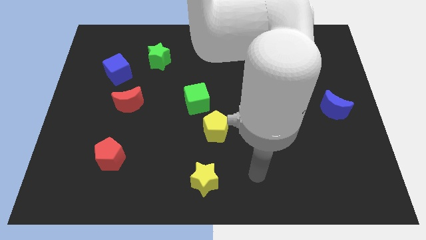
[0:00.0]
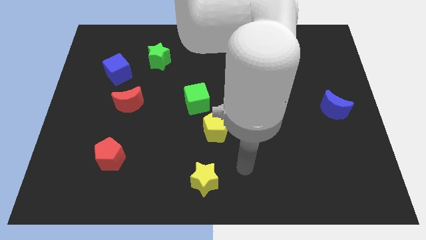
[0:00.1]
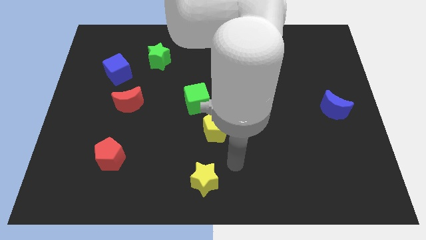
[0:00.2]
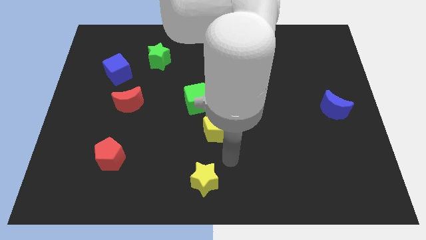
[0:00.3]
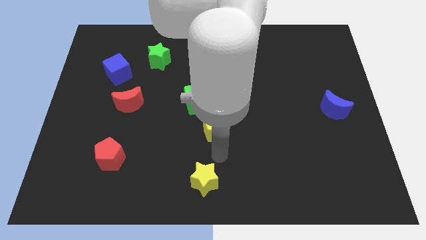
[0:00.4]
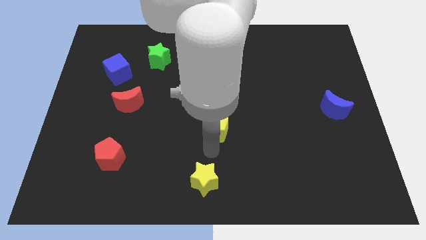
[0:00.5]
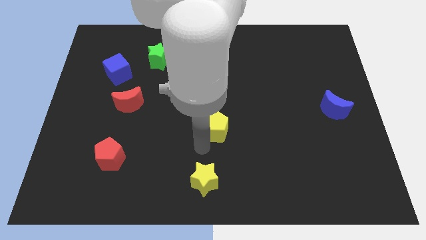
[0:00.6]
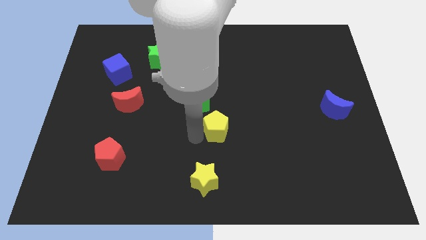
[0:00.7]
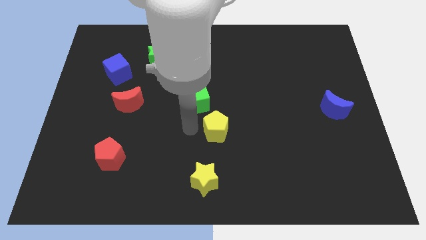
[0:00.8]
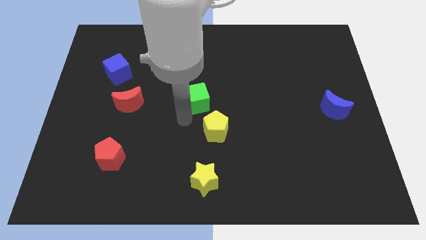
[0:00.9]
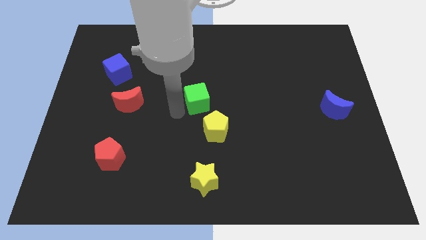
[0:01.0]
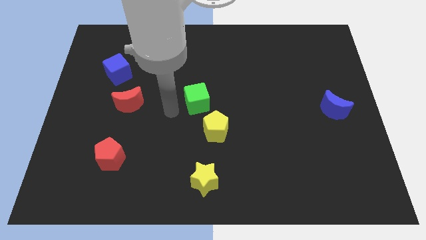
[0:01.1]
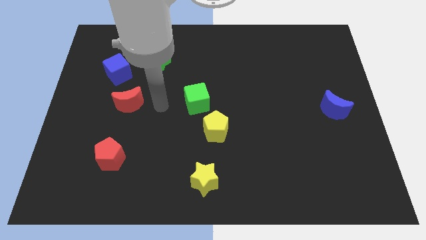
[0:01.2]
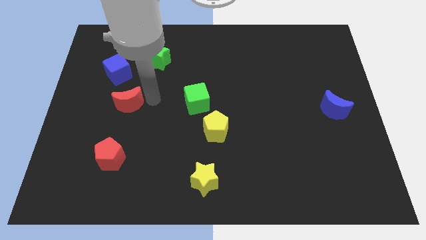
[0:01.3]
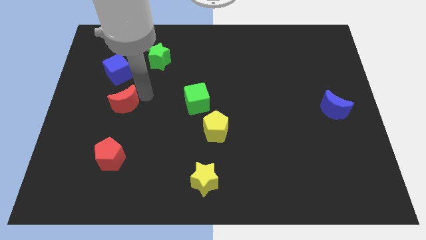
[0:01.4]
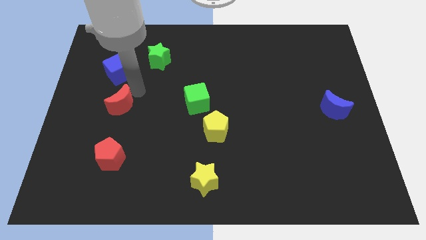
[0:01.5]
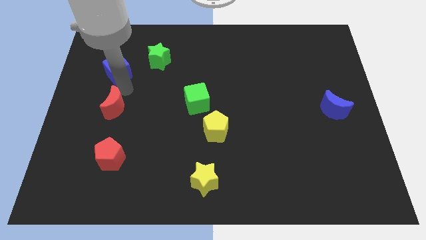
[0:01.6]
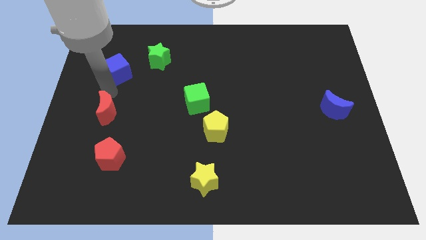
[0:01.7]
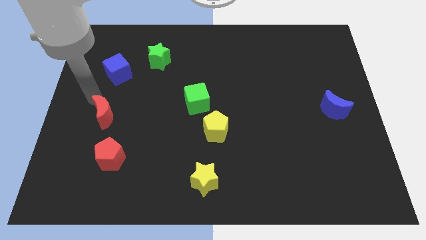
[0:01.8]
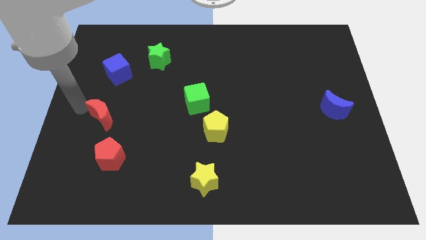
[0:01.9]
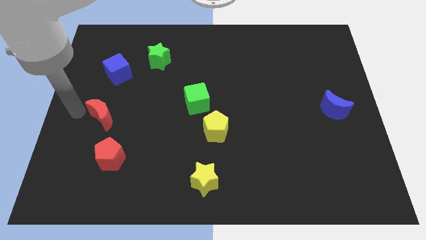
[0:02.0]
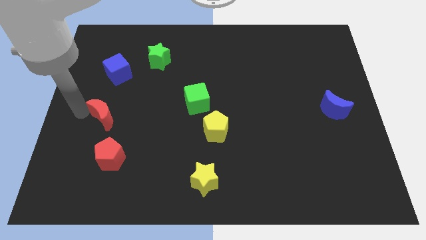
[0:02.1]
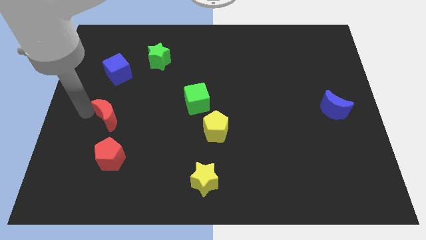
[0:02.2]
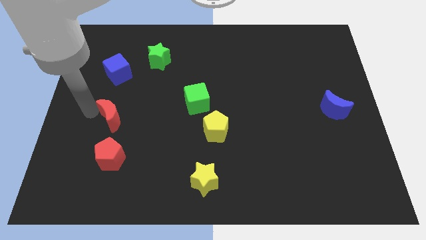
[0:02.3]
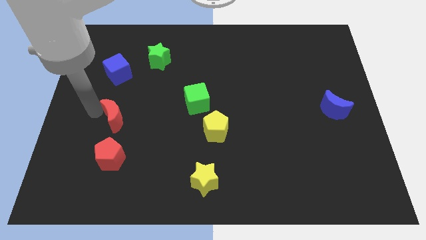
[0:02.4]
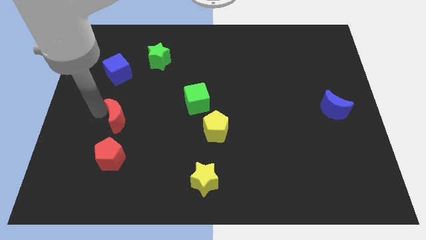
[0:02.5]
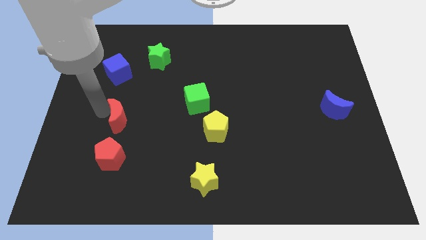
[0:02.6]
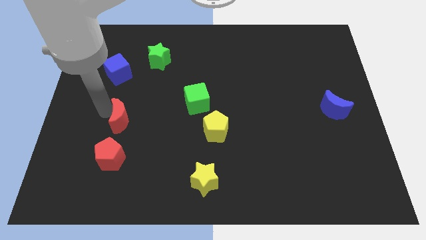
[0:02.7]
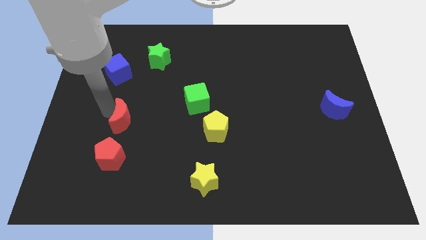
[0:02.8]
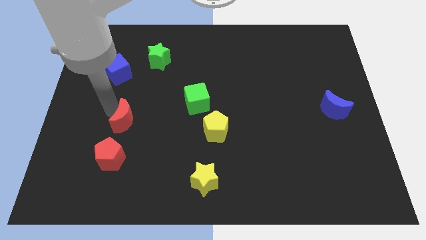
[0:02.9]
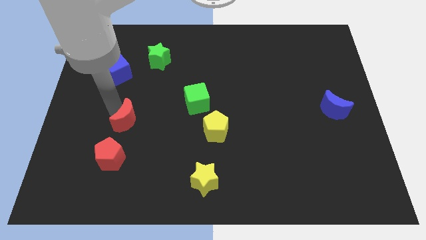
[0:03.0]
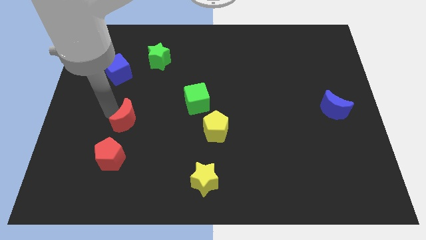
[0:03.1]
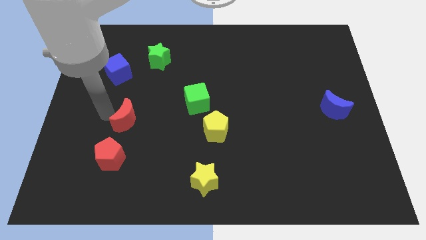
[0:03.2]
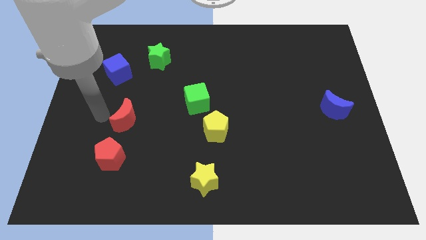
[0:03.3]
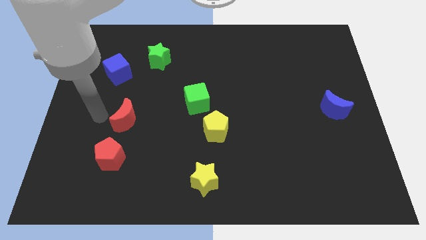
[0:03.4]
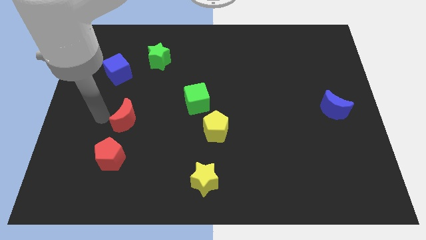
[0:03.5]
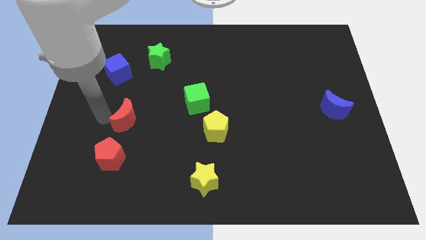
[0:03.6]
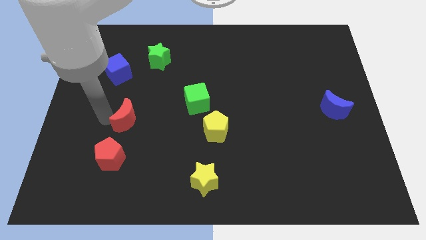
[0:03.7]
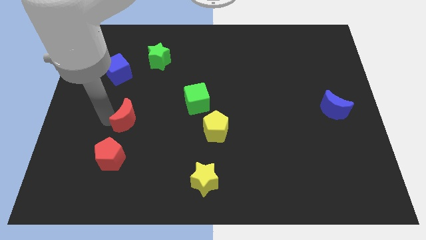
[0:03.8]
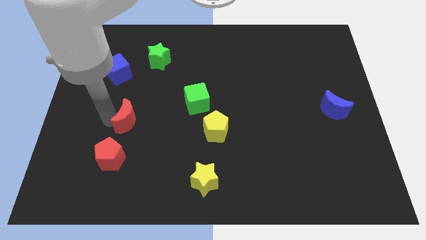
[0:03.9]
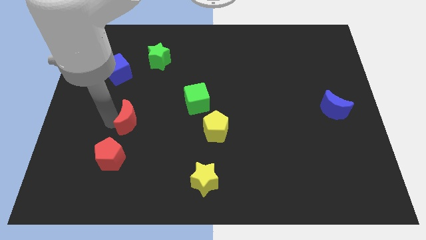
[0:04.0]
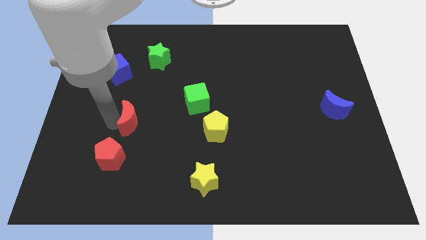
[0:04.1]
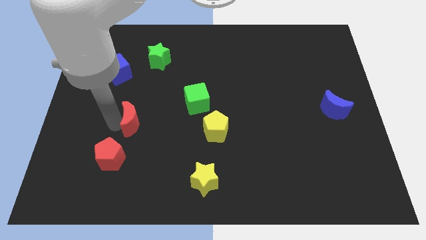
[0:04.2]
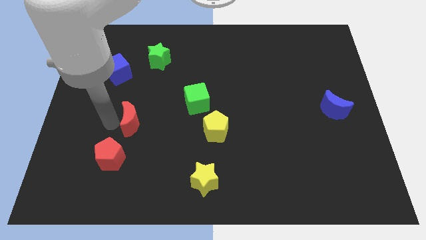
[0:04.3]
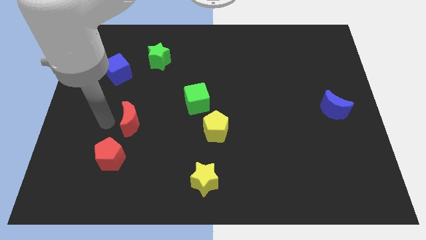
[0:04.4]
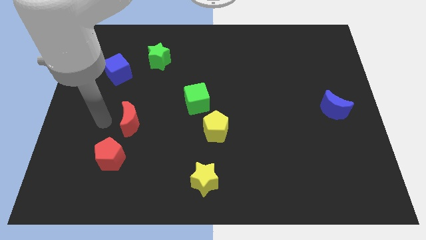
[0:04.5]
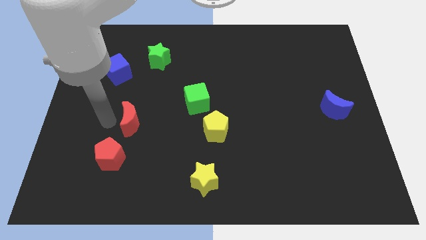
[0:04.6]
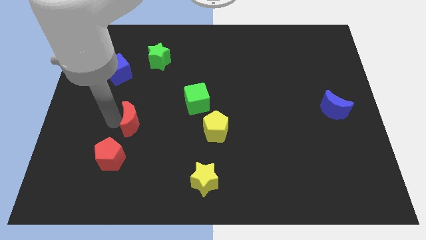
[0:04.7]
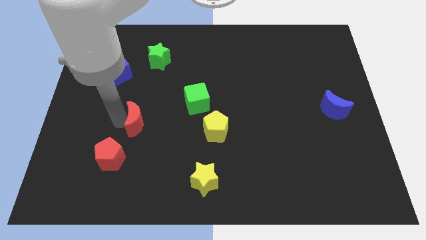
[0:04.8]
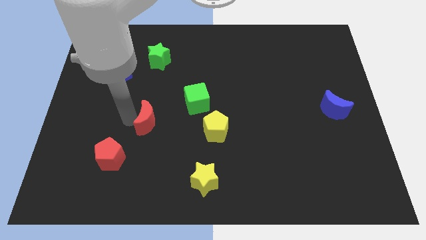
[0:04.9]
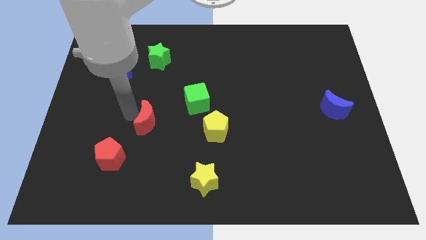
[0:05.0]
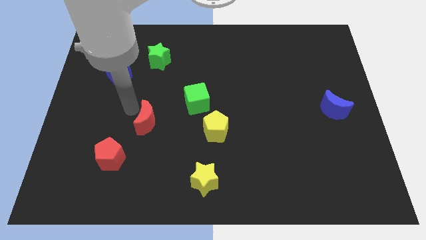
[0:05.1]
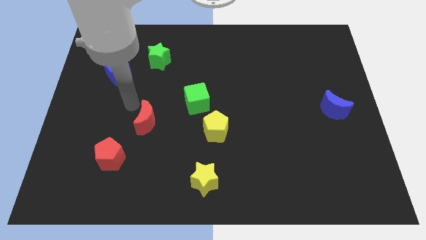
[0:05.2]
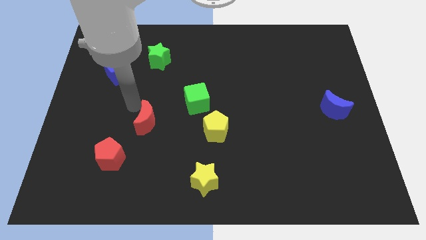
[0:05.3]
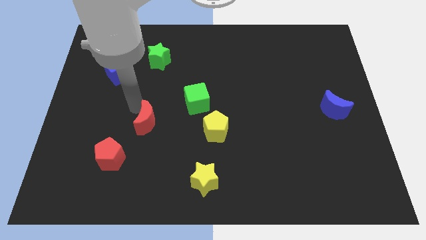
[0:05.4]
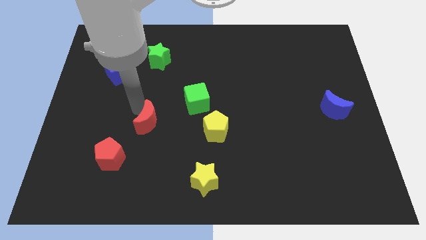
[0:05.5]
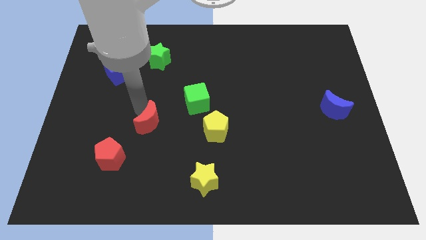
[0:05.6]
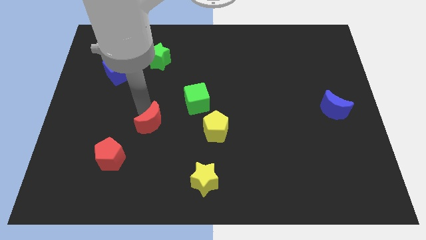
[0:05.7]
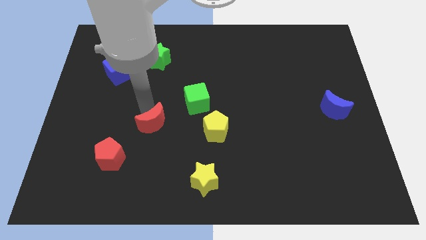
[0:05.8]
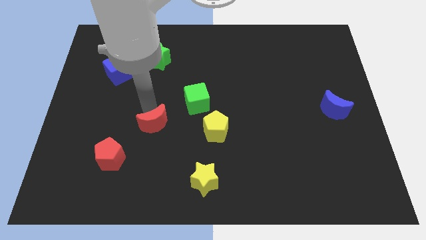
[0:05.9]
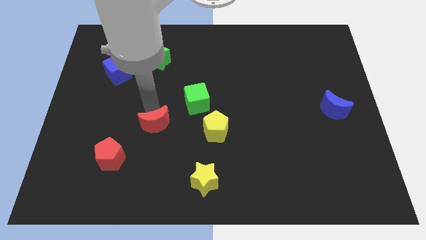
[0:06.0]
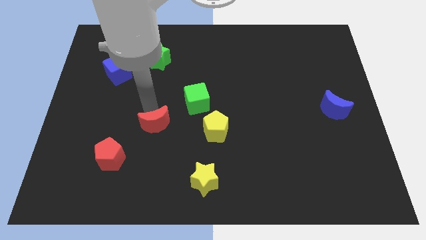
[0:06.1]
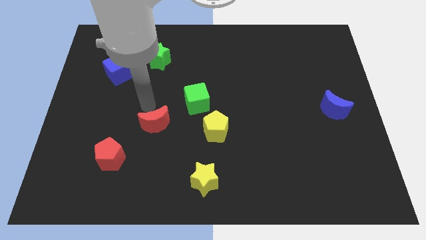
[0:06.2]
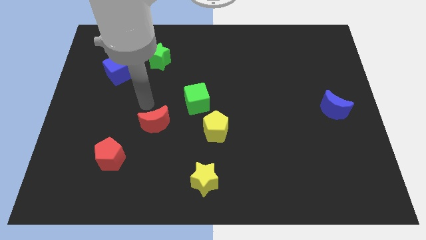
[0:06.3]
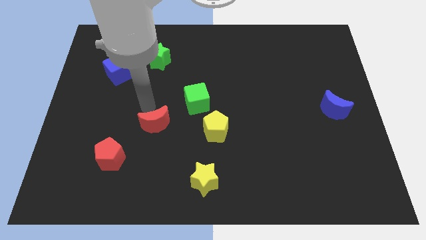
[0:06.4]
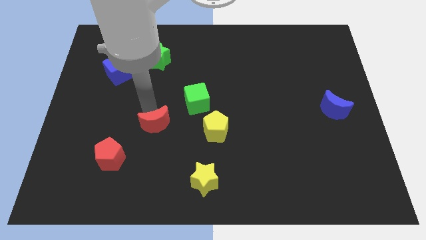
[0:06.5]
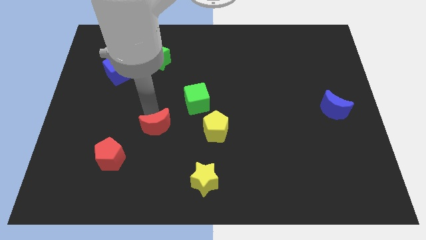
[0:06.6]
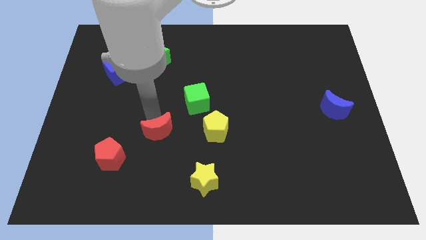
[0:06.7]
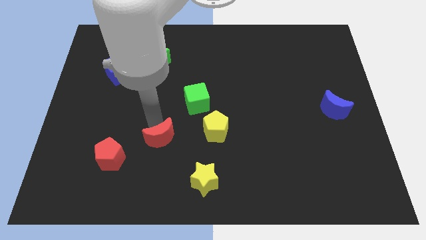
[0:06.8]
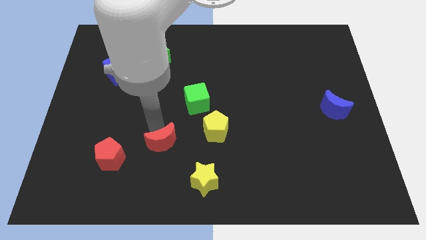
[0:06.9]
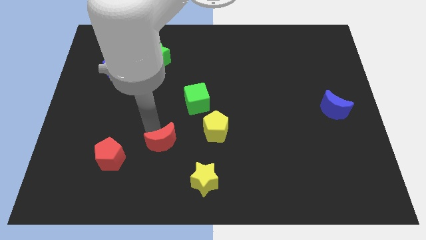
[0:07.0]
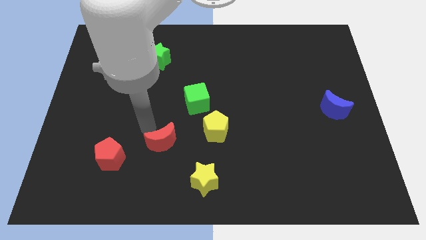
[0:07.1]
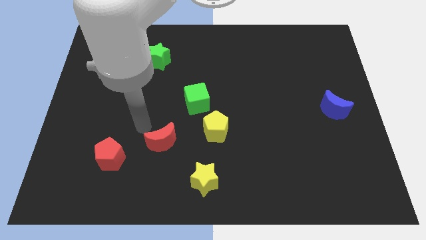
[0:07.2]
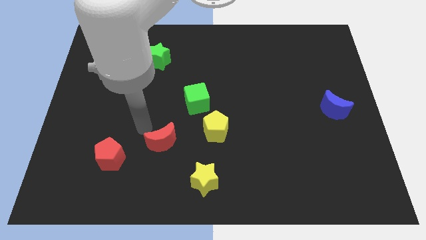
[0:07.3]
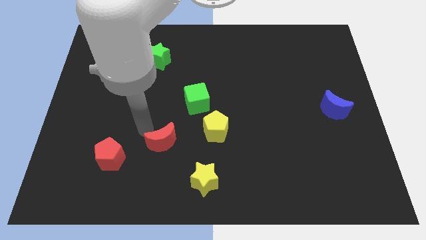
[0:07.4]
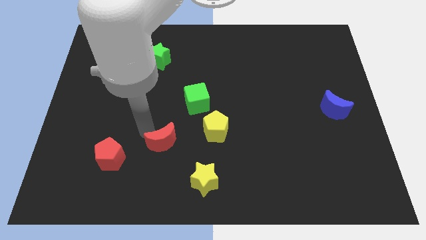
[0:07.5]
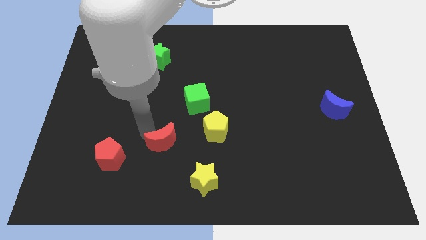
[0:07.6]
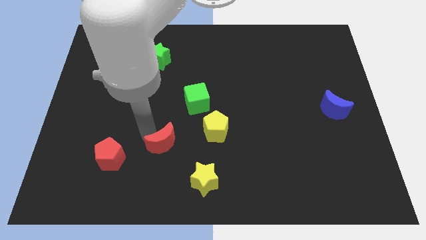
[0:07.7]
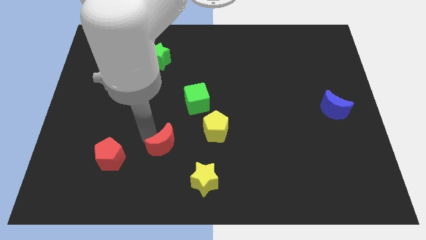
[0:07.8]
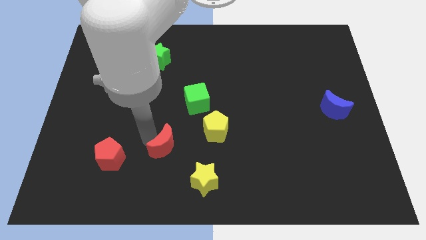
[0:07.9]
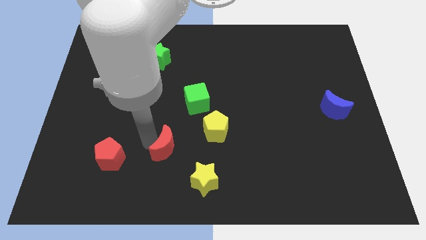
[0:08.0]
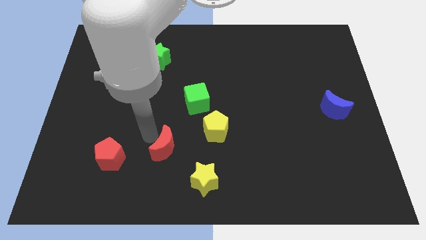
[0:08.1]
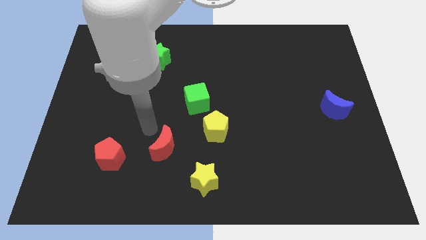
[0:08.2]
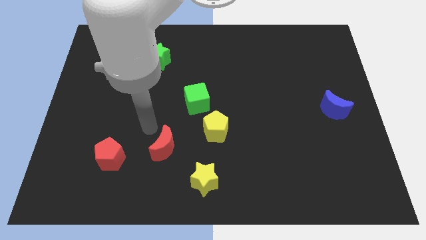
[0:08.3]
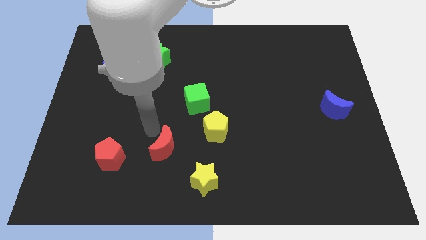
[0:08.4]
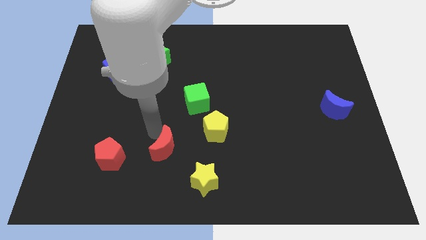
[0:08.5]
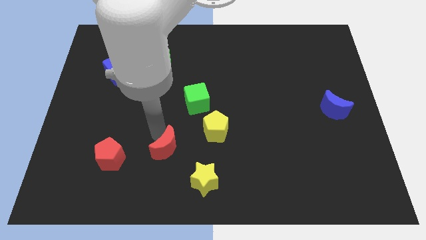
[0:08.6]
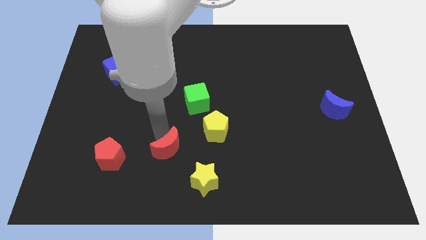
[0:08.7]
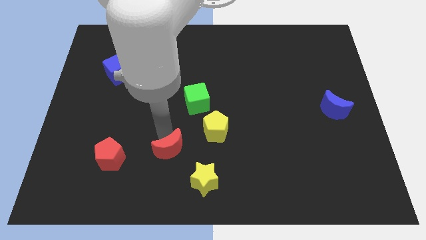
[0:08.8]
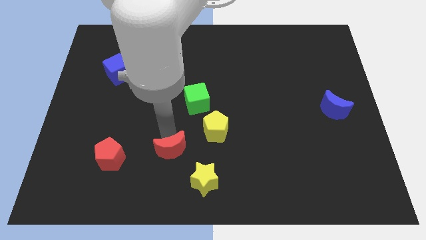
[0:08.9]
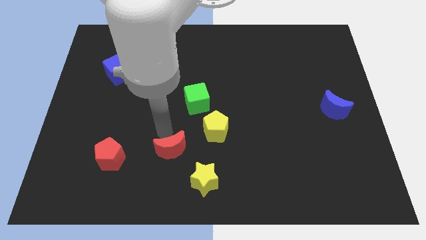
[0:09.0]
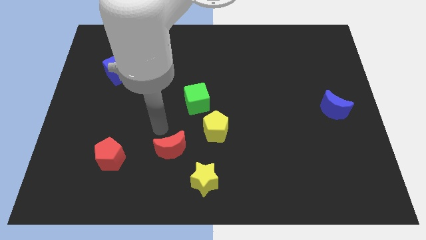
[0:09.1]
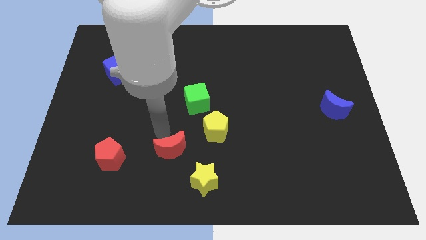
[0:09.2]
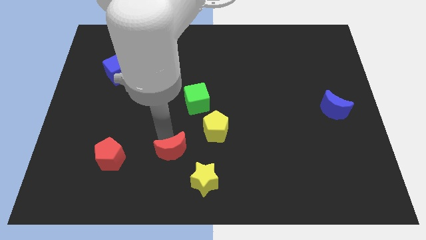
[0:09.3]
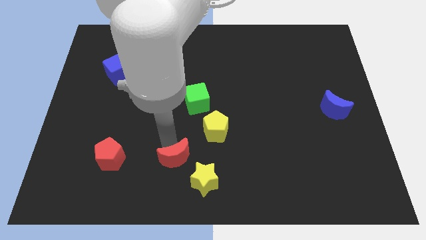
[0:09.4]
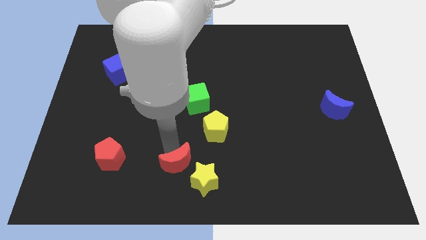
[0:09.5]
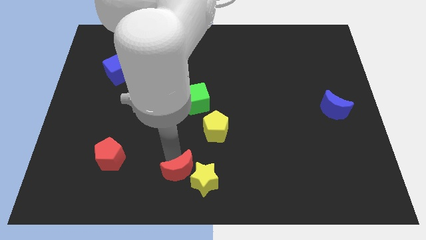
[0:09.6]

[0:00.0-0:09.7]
put the red moon to the yellow star
